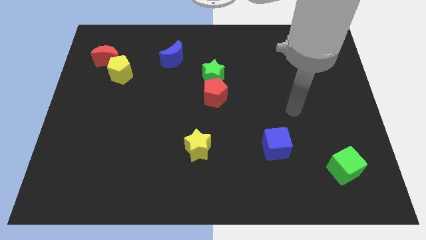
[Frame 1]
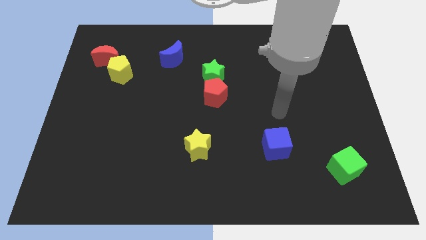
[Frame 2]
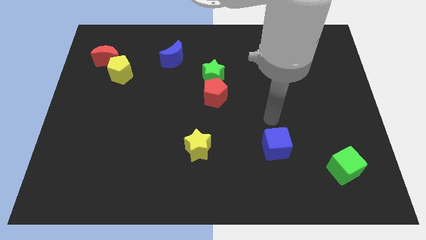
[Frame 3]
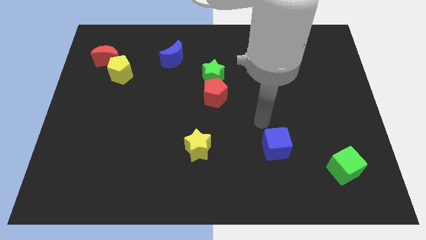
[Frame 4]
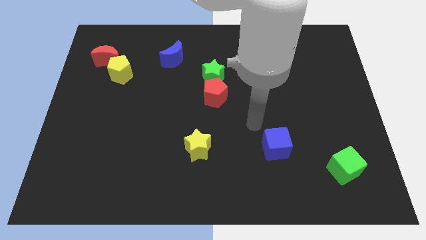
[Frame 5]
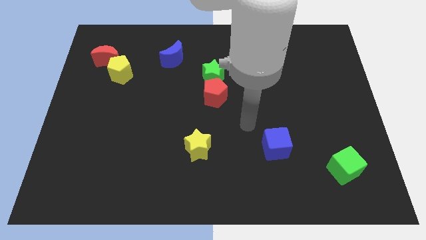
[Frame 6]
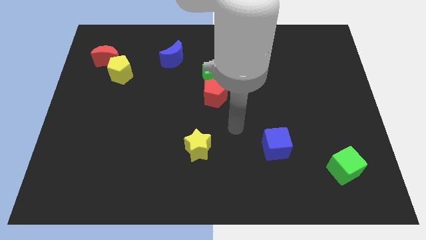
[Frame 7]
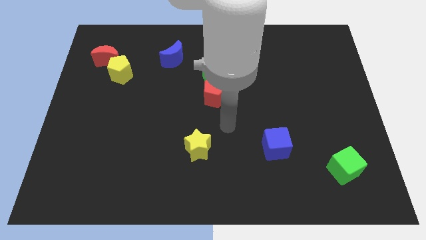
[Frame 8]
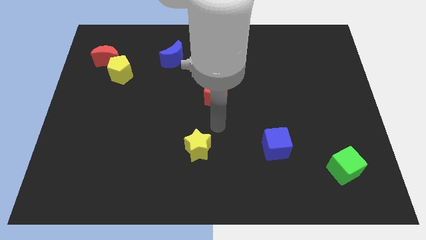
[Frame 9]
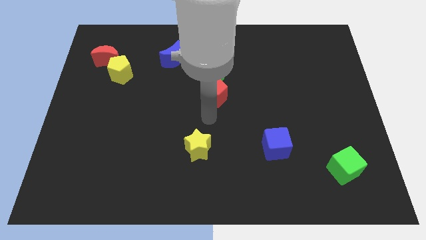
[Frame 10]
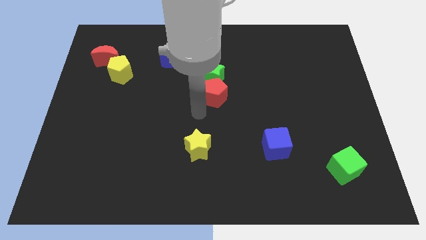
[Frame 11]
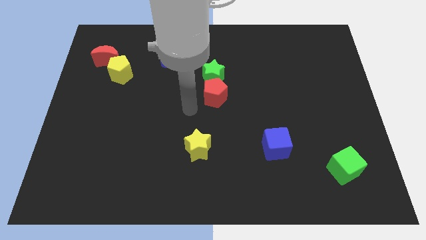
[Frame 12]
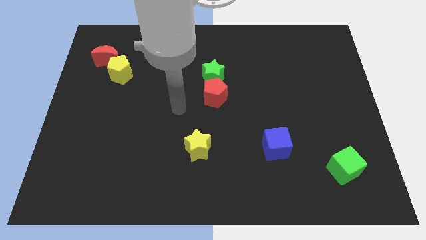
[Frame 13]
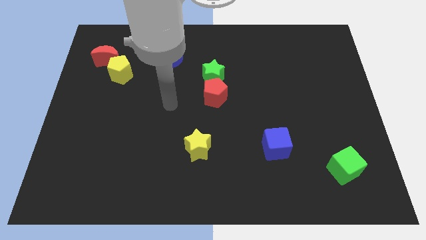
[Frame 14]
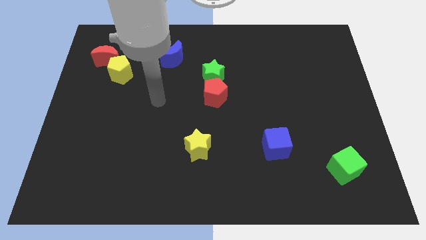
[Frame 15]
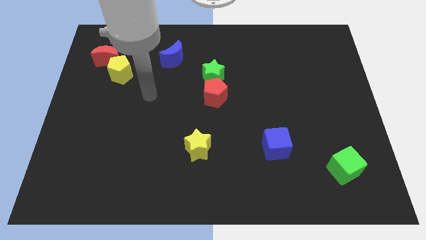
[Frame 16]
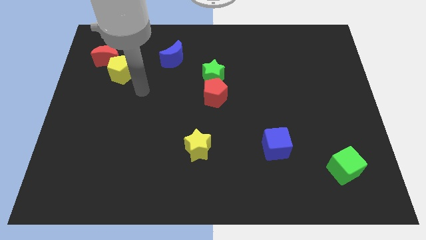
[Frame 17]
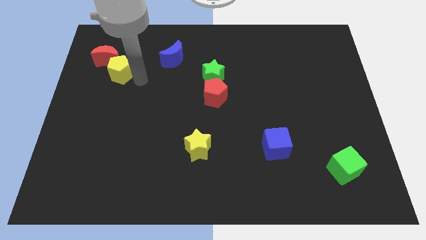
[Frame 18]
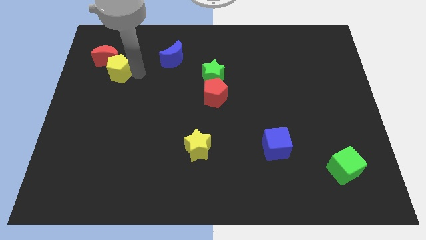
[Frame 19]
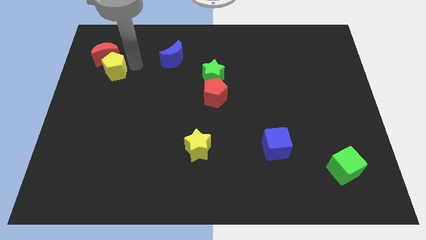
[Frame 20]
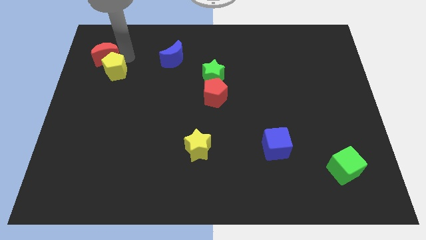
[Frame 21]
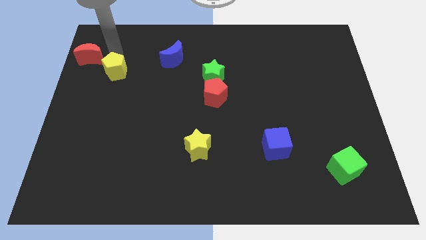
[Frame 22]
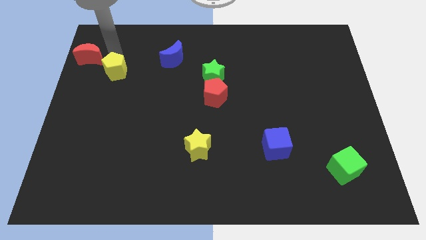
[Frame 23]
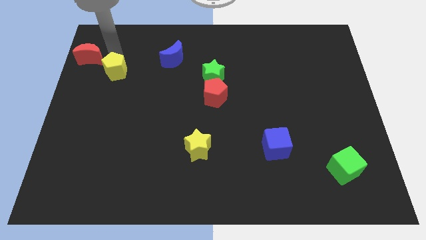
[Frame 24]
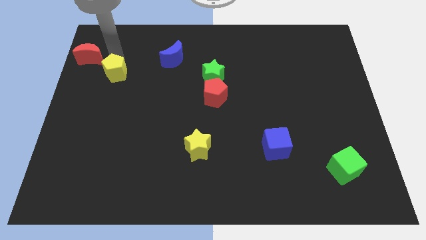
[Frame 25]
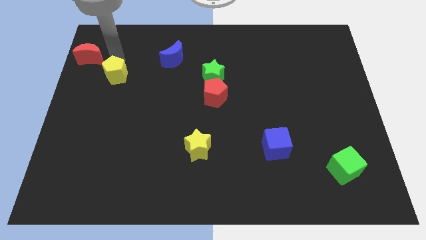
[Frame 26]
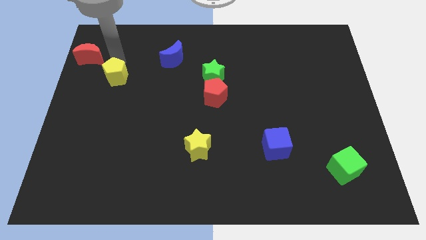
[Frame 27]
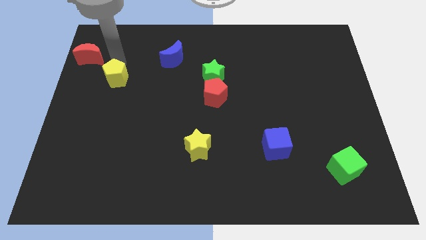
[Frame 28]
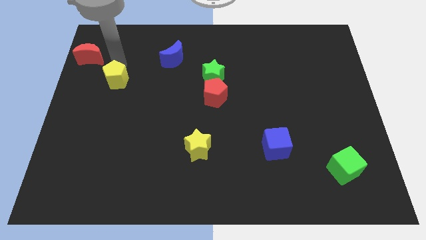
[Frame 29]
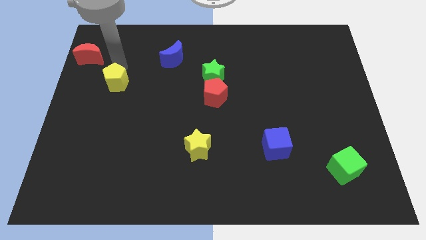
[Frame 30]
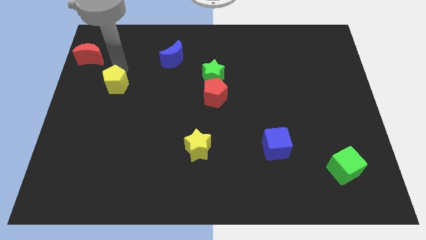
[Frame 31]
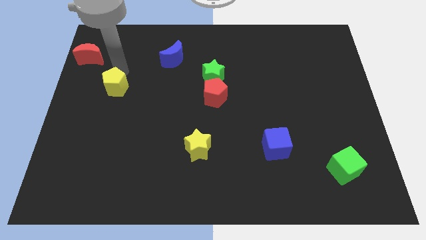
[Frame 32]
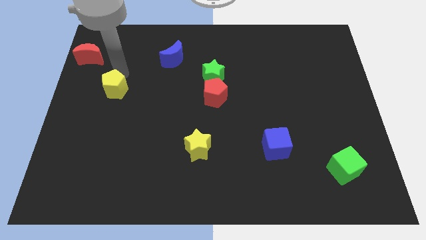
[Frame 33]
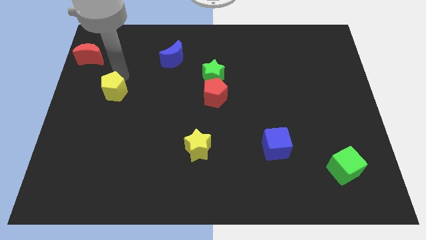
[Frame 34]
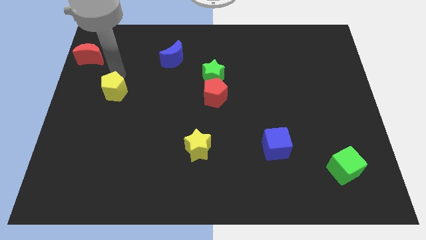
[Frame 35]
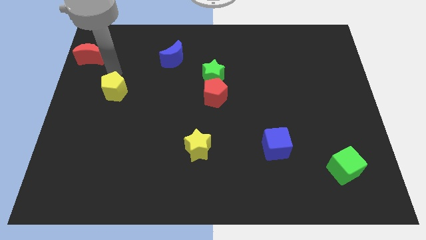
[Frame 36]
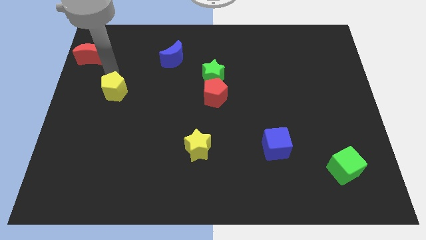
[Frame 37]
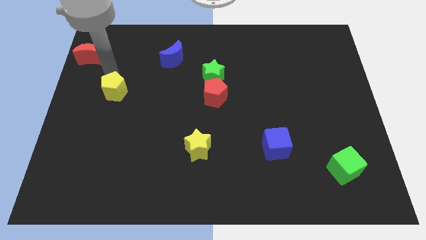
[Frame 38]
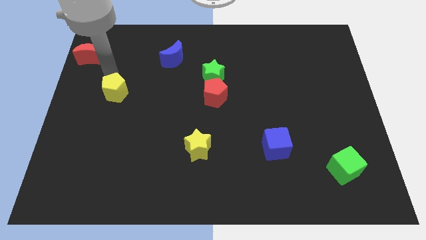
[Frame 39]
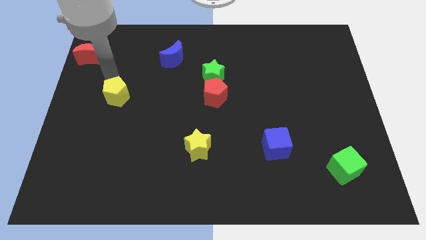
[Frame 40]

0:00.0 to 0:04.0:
slightly push the yellow pentagon down

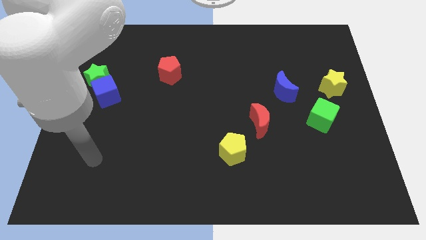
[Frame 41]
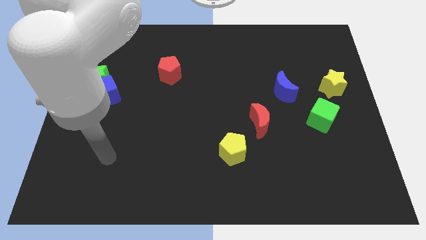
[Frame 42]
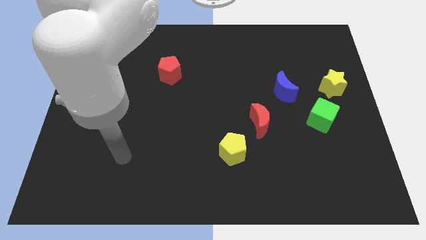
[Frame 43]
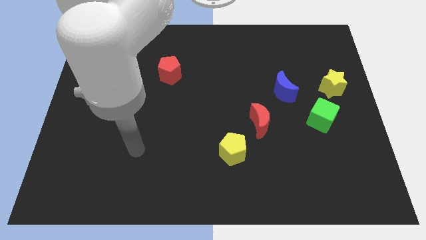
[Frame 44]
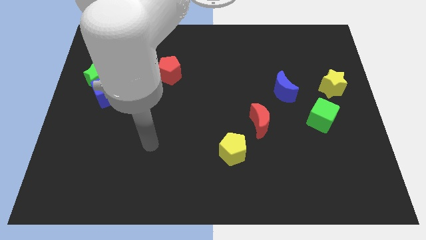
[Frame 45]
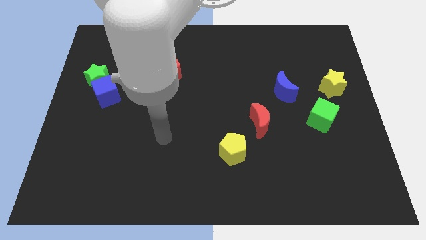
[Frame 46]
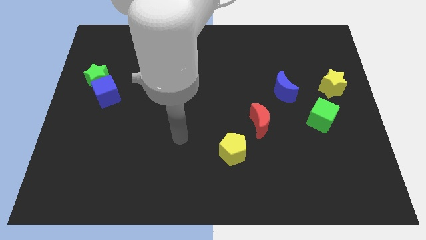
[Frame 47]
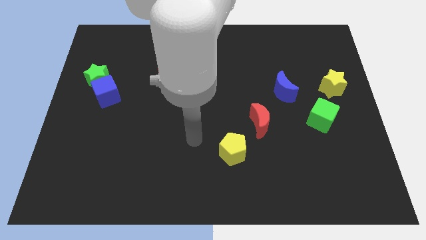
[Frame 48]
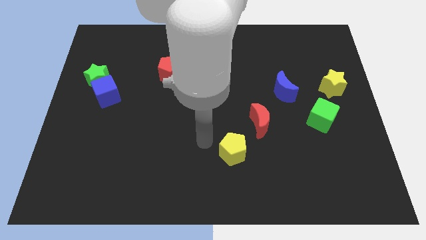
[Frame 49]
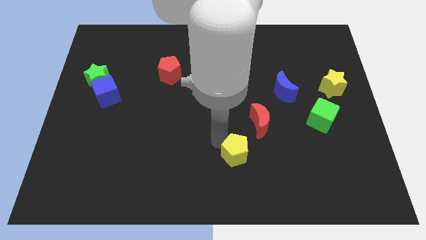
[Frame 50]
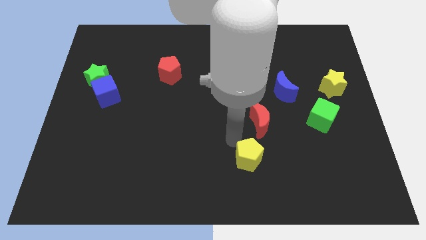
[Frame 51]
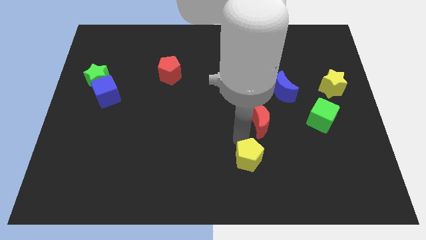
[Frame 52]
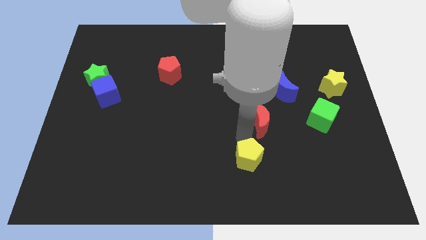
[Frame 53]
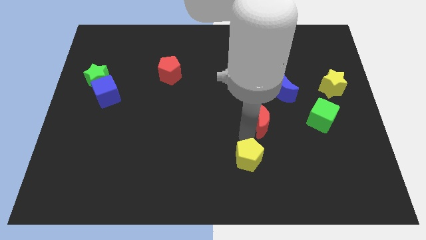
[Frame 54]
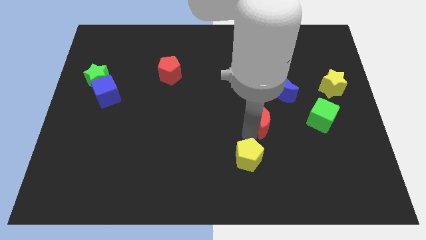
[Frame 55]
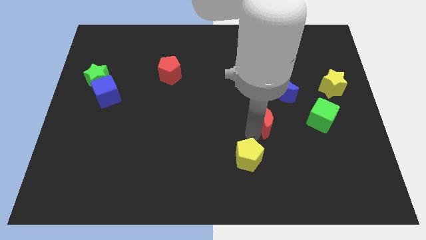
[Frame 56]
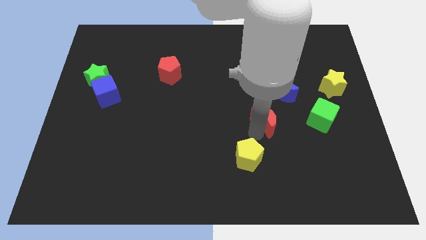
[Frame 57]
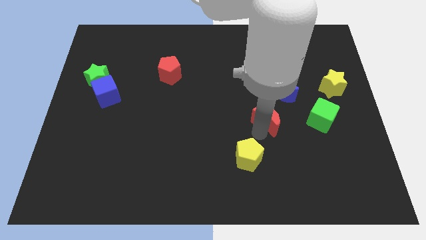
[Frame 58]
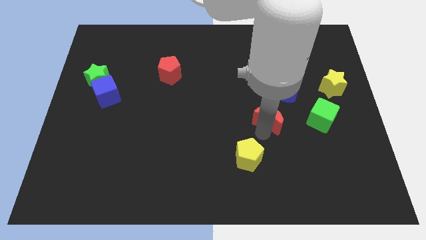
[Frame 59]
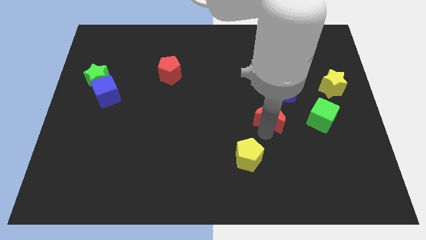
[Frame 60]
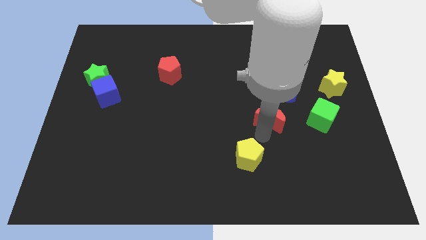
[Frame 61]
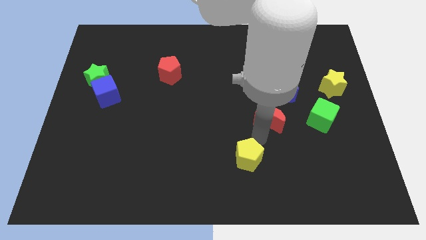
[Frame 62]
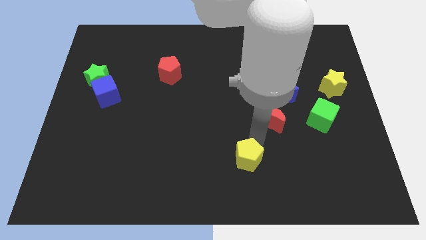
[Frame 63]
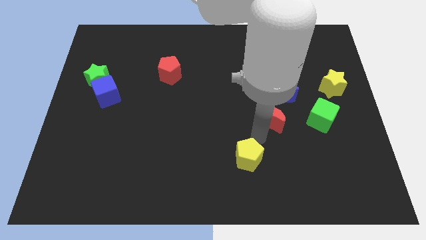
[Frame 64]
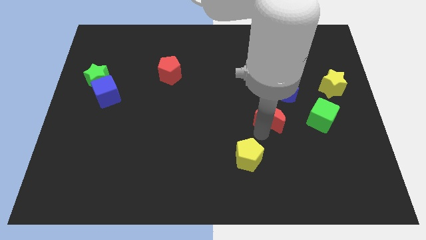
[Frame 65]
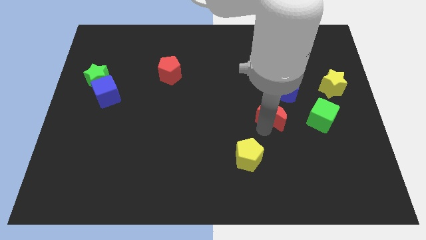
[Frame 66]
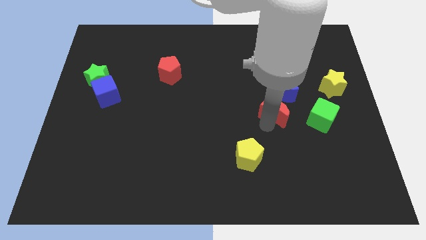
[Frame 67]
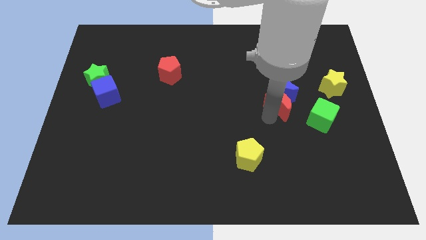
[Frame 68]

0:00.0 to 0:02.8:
slide the red moon somewhat upwards and then to the right

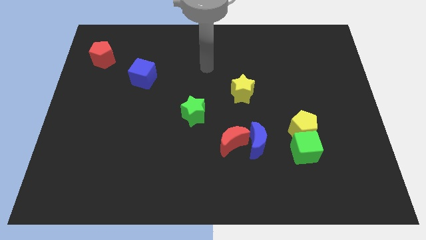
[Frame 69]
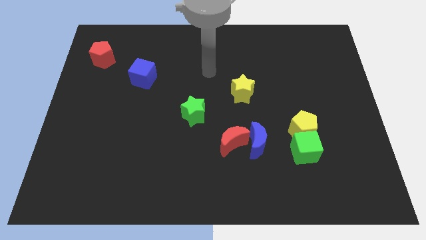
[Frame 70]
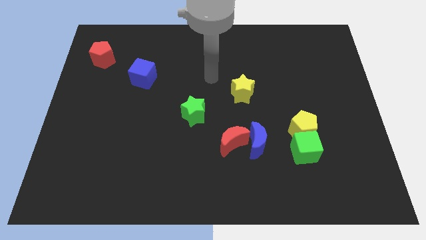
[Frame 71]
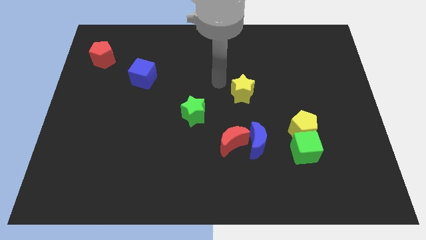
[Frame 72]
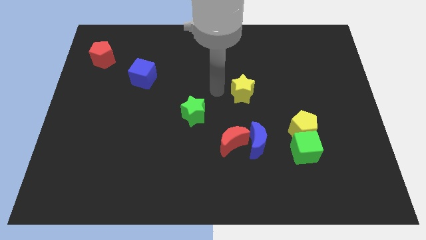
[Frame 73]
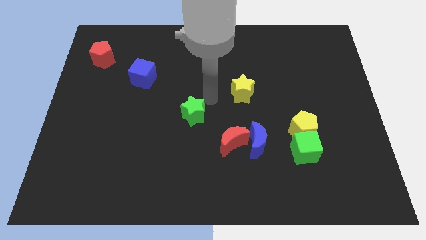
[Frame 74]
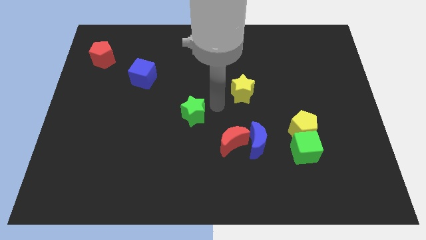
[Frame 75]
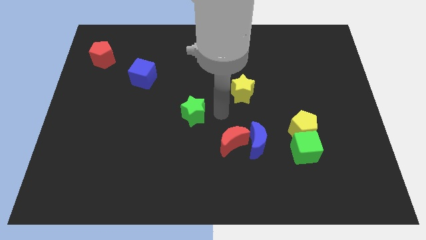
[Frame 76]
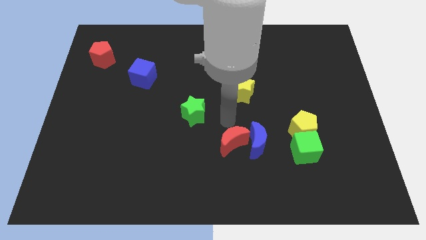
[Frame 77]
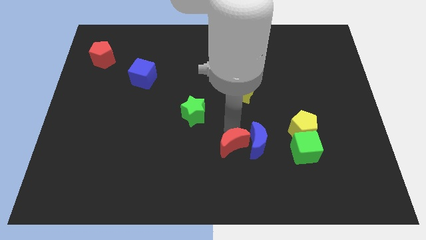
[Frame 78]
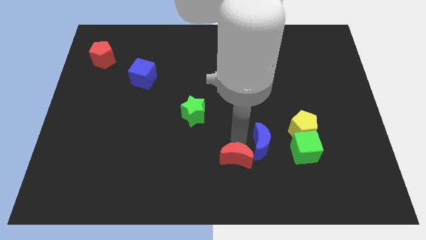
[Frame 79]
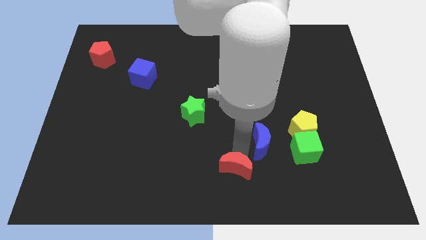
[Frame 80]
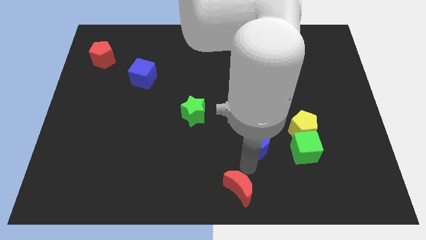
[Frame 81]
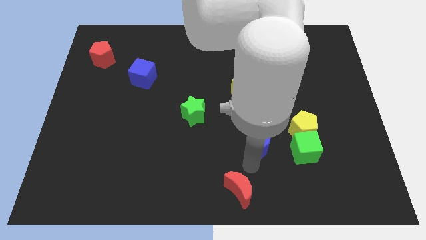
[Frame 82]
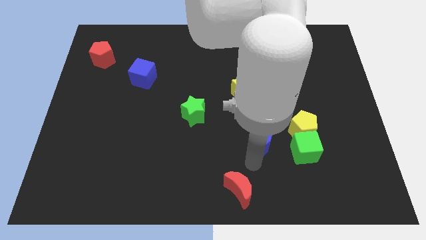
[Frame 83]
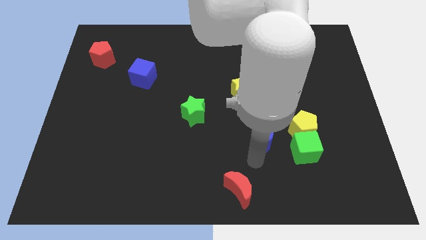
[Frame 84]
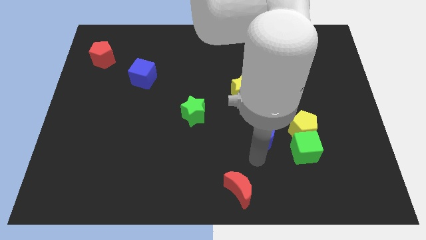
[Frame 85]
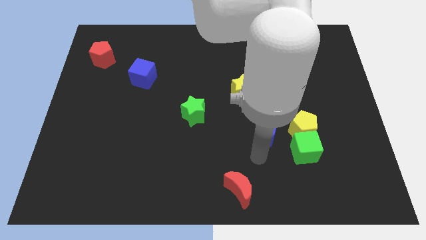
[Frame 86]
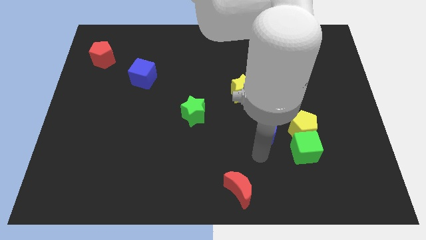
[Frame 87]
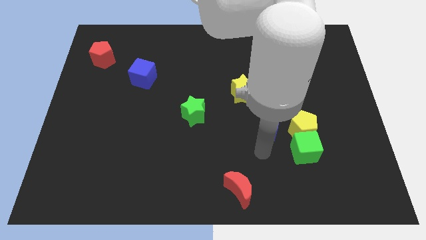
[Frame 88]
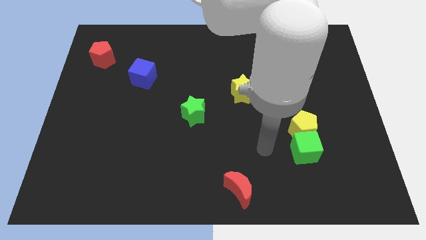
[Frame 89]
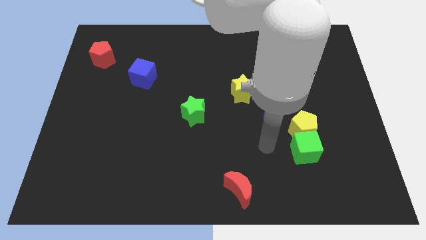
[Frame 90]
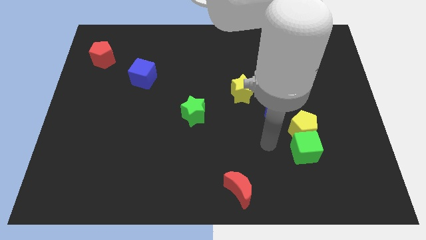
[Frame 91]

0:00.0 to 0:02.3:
push the blue moon upwards and to the right somewhat
